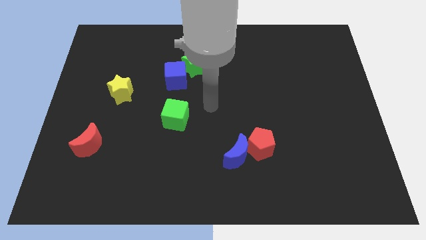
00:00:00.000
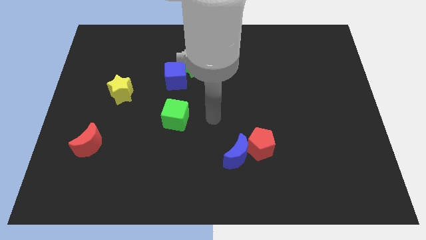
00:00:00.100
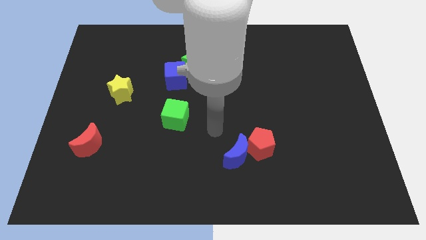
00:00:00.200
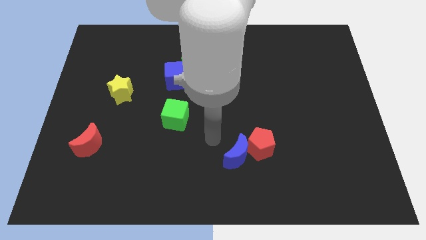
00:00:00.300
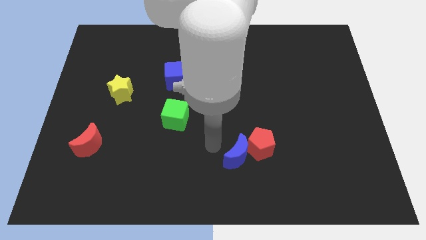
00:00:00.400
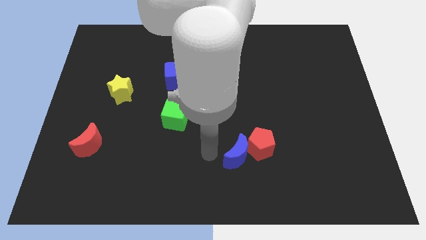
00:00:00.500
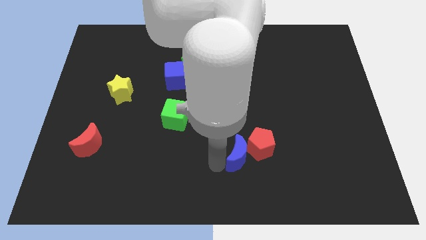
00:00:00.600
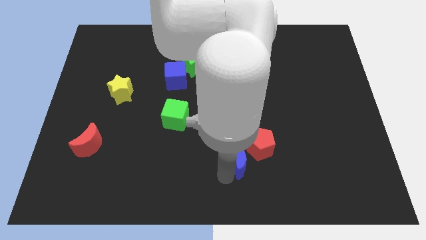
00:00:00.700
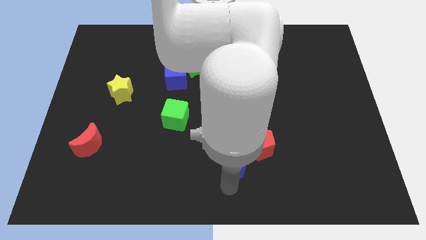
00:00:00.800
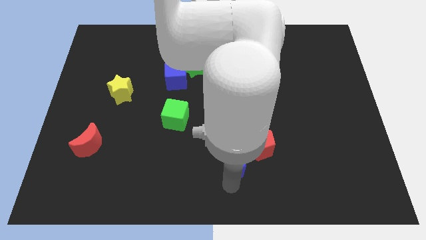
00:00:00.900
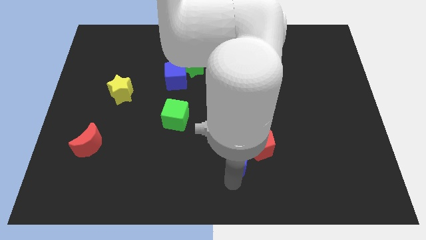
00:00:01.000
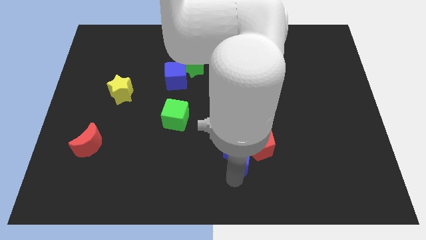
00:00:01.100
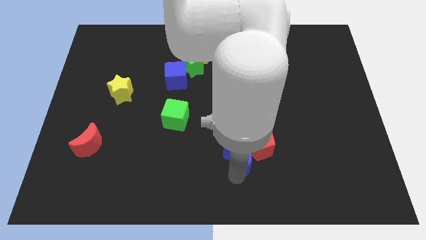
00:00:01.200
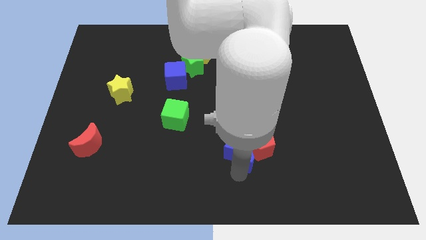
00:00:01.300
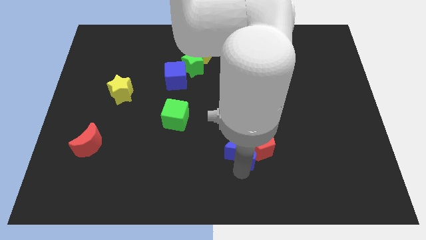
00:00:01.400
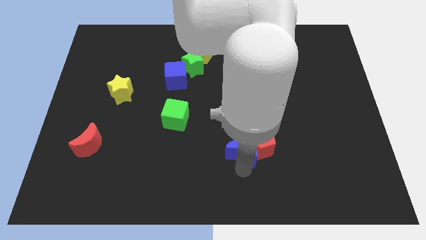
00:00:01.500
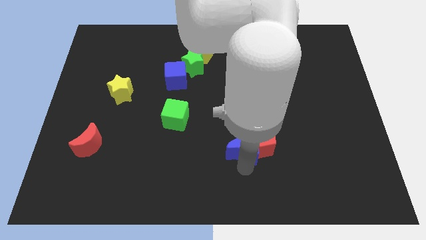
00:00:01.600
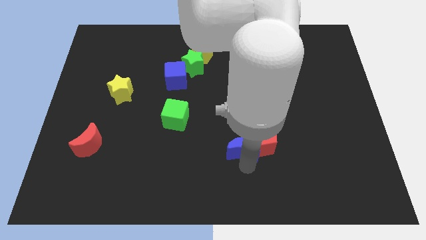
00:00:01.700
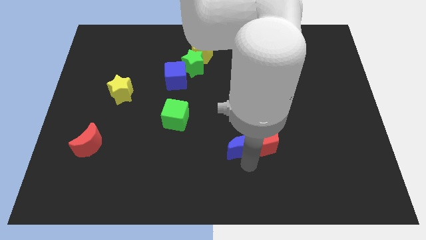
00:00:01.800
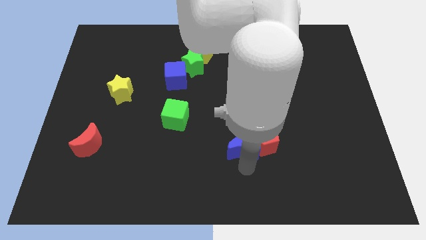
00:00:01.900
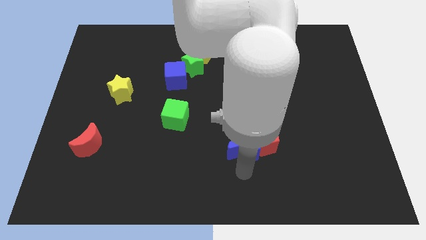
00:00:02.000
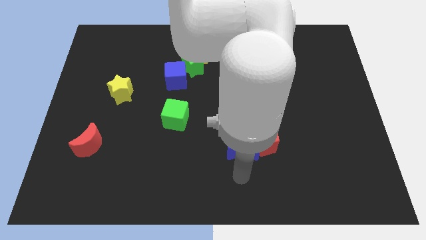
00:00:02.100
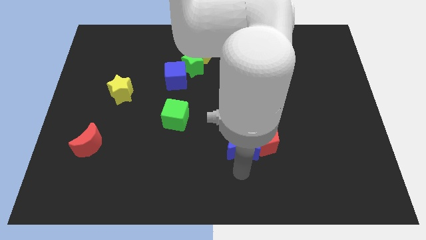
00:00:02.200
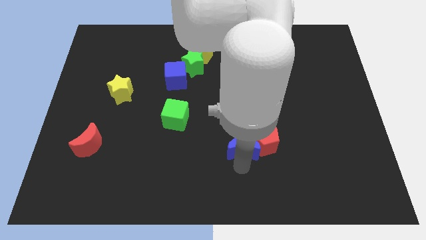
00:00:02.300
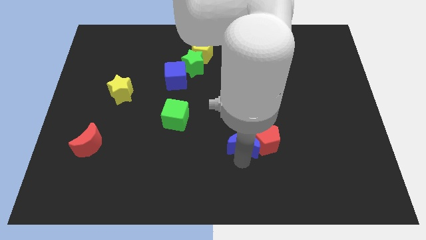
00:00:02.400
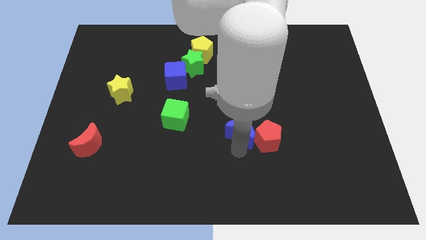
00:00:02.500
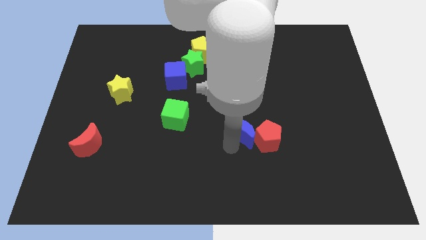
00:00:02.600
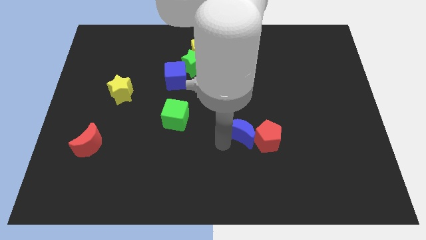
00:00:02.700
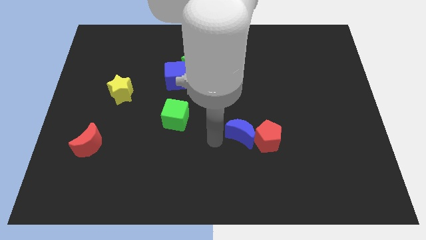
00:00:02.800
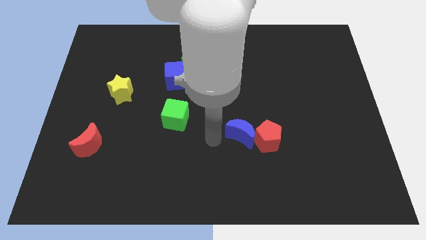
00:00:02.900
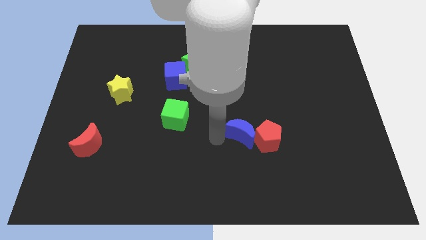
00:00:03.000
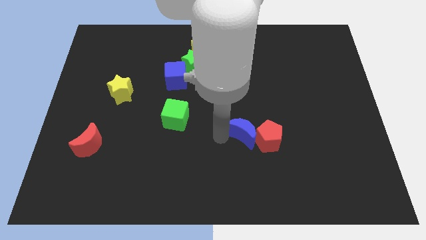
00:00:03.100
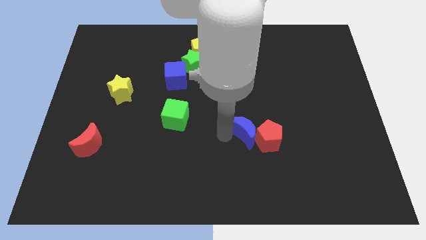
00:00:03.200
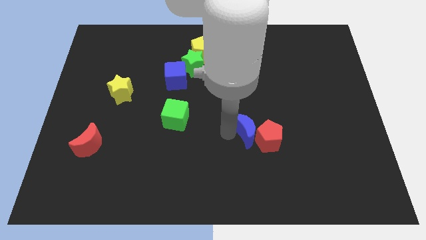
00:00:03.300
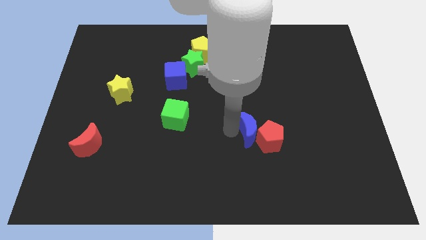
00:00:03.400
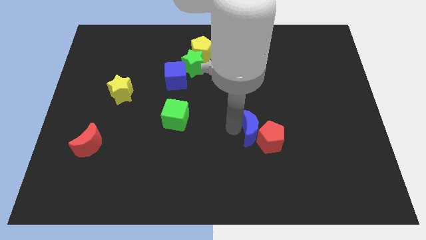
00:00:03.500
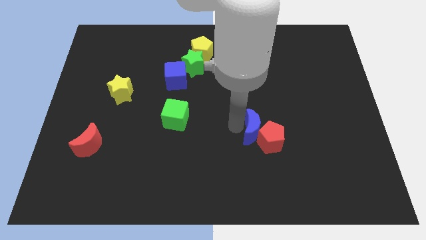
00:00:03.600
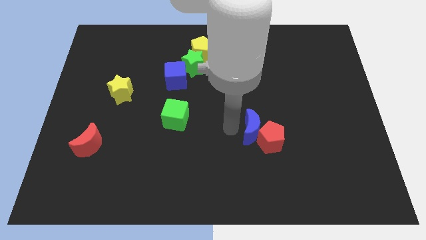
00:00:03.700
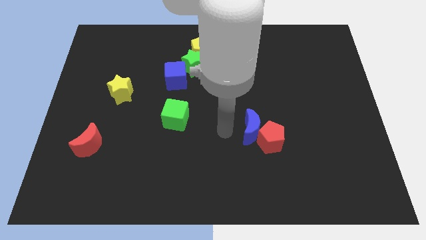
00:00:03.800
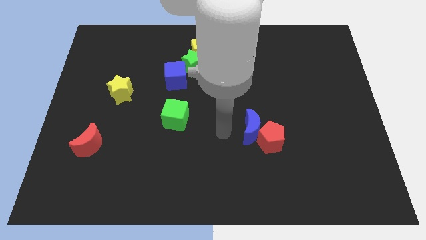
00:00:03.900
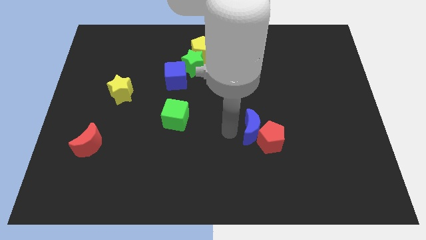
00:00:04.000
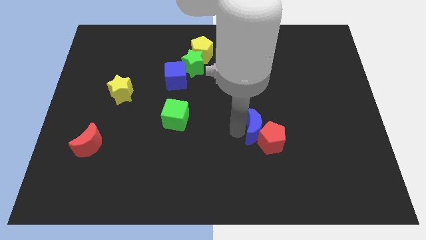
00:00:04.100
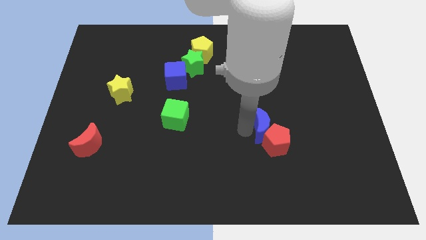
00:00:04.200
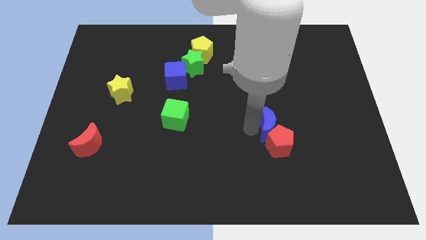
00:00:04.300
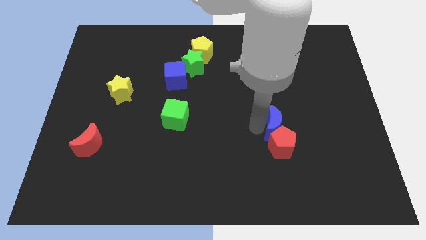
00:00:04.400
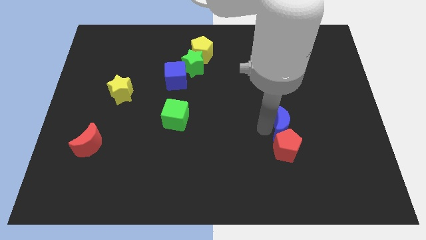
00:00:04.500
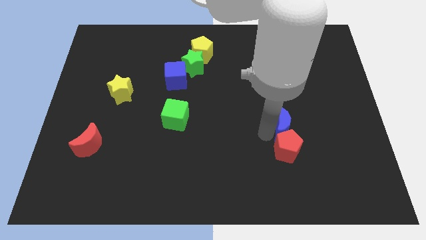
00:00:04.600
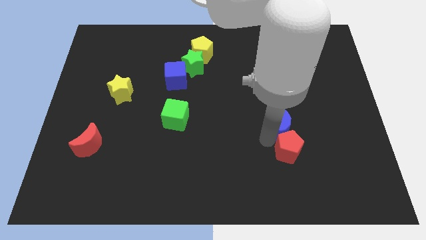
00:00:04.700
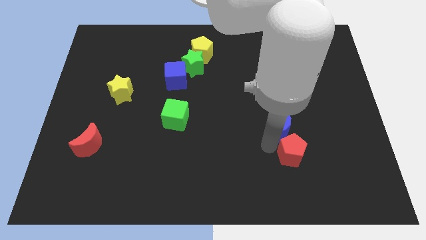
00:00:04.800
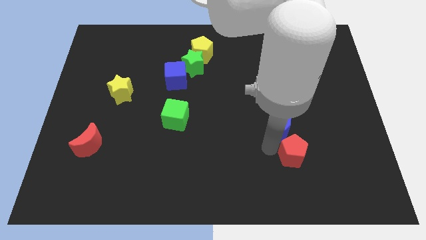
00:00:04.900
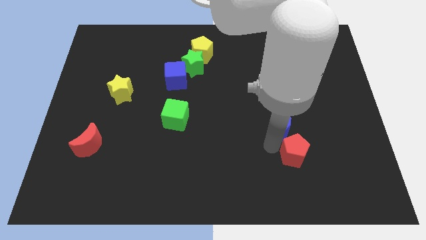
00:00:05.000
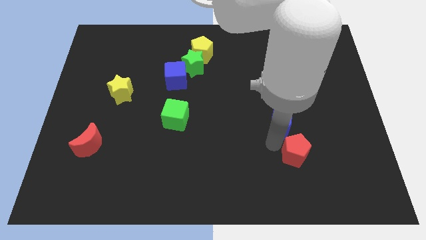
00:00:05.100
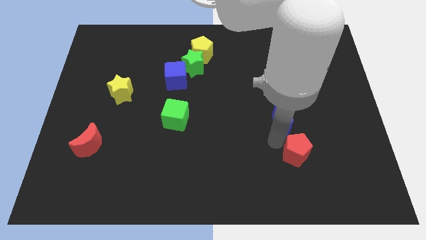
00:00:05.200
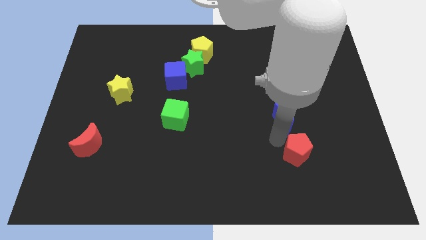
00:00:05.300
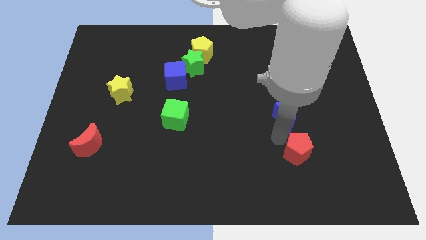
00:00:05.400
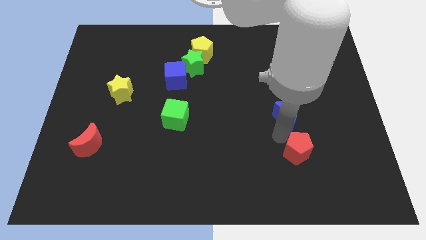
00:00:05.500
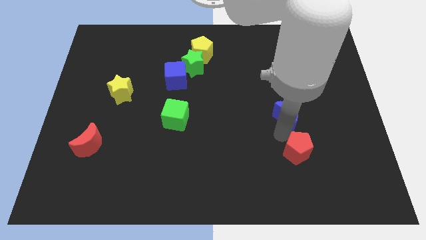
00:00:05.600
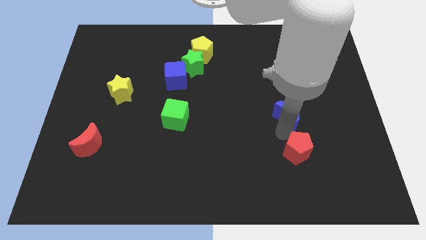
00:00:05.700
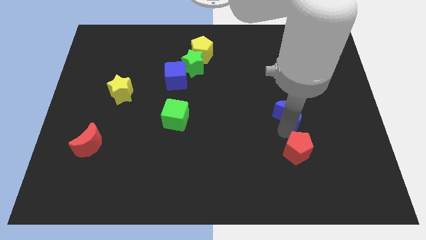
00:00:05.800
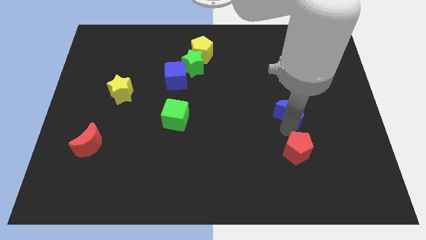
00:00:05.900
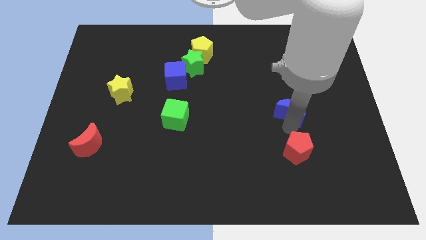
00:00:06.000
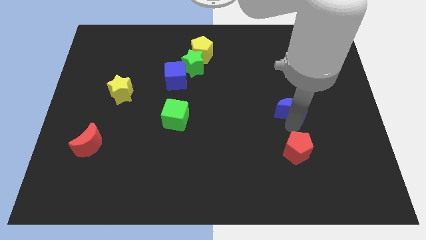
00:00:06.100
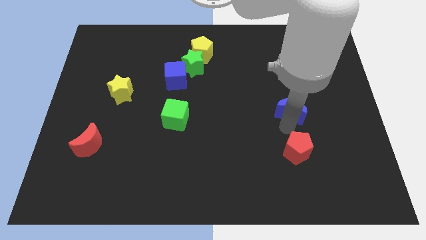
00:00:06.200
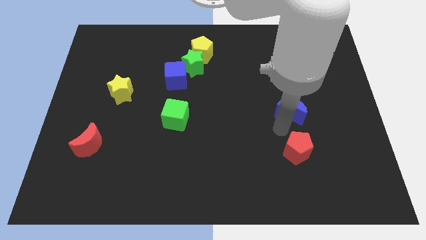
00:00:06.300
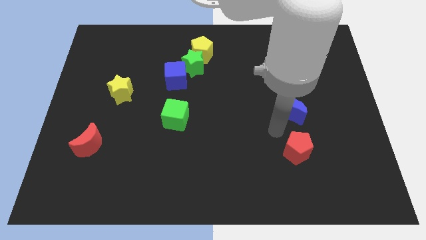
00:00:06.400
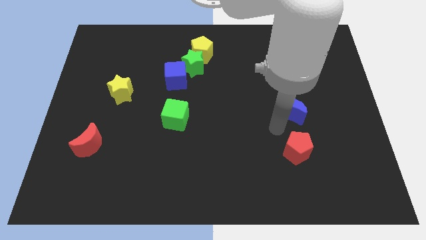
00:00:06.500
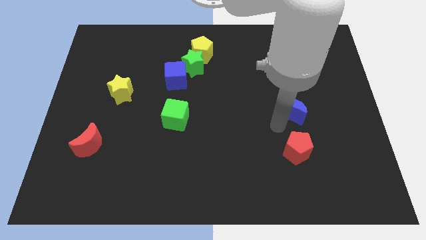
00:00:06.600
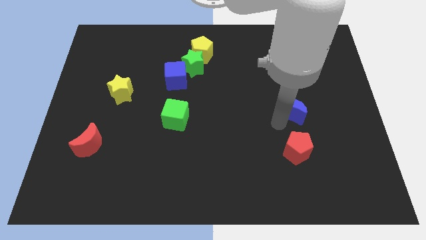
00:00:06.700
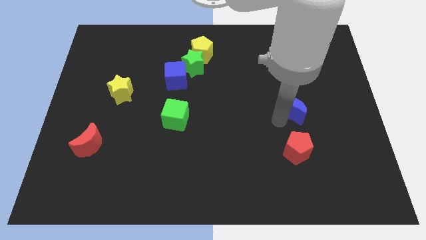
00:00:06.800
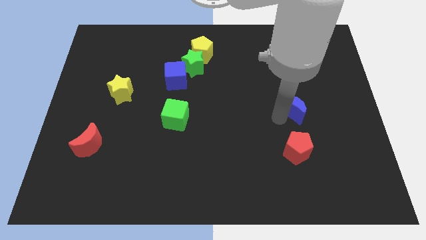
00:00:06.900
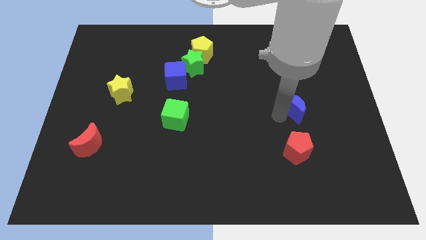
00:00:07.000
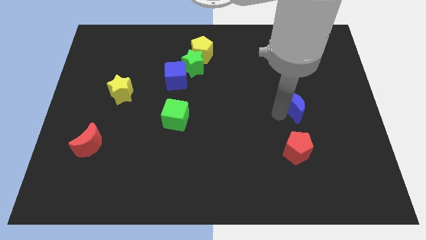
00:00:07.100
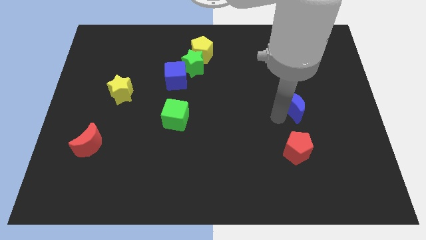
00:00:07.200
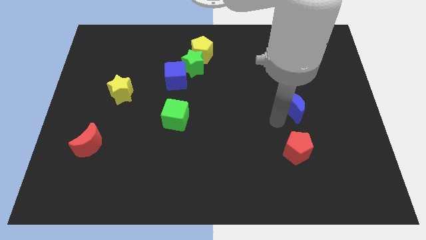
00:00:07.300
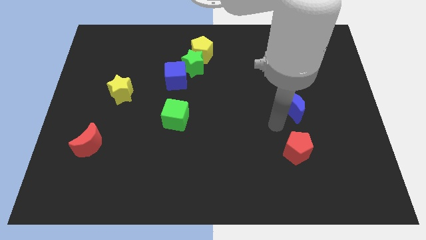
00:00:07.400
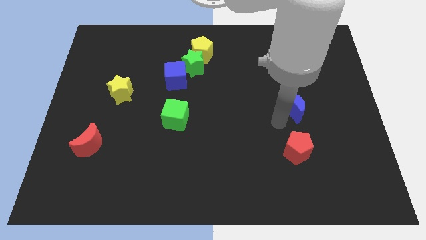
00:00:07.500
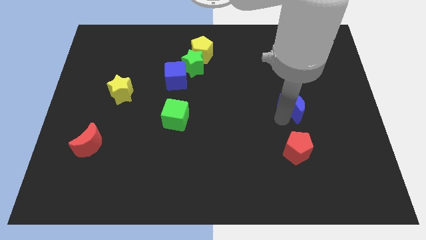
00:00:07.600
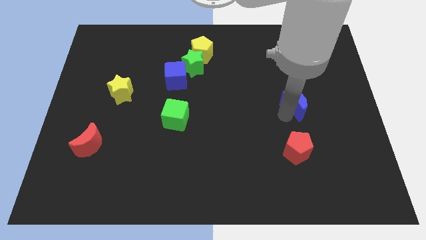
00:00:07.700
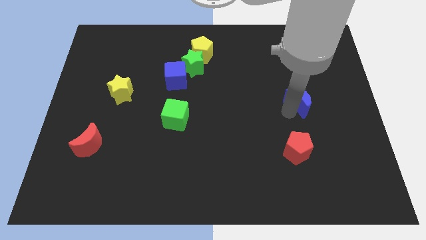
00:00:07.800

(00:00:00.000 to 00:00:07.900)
move the blue moon upwards and right
